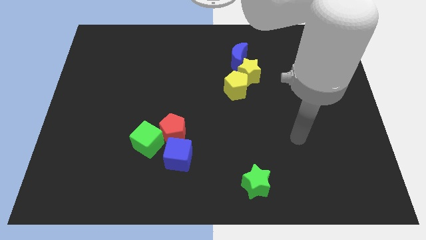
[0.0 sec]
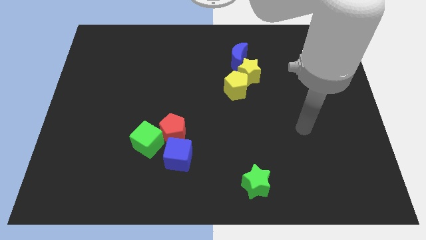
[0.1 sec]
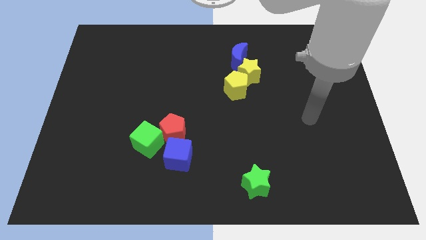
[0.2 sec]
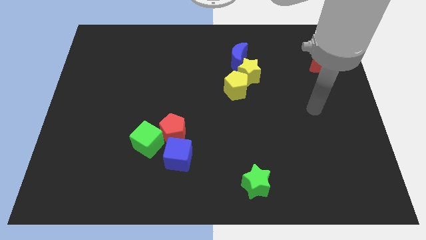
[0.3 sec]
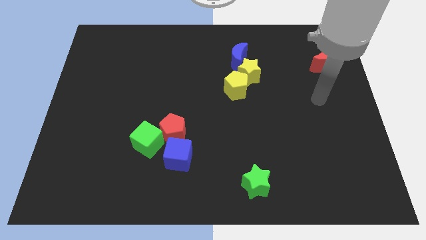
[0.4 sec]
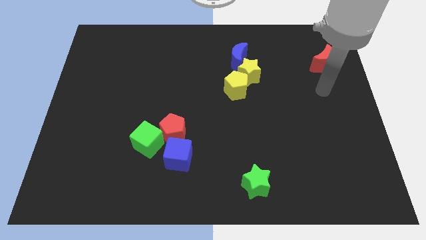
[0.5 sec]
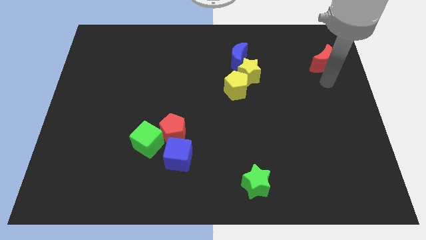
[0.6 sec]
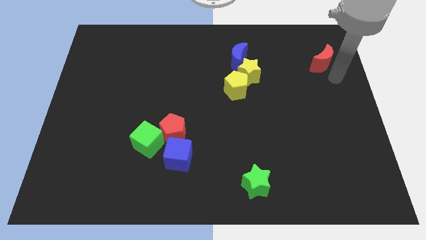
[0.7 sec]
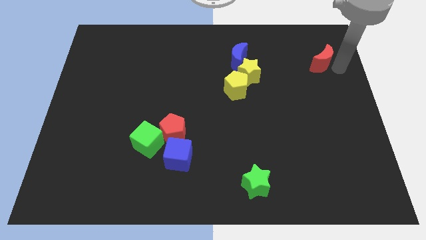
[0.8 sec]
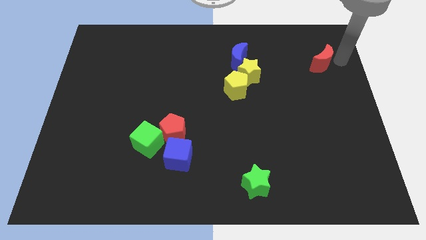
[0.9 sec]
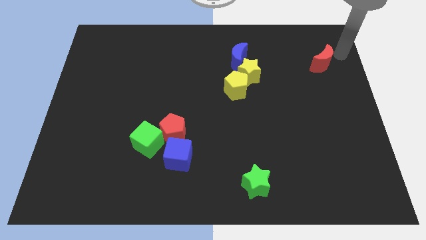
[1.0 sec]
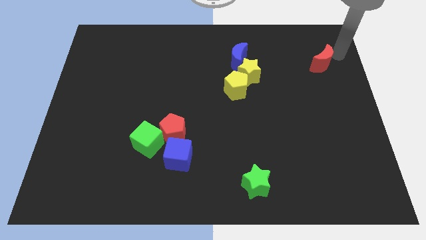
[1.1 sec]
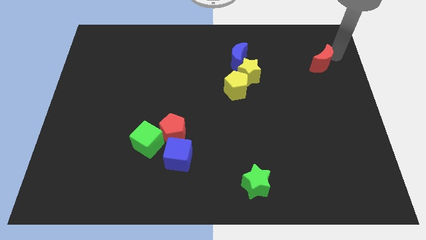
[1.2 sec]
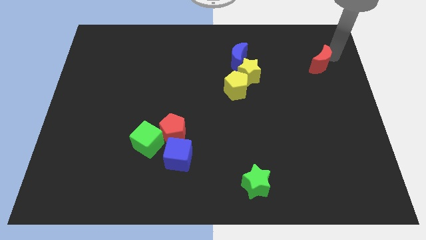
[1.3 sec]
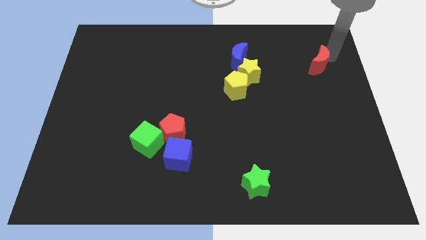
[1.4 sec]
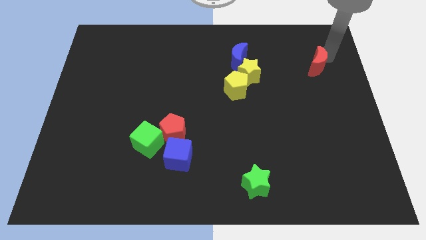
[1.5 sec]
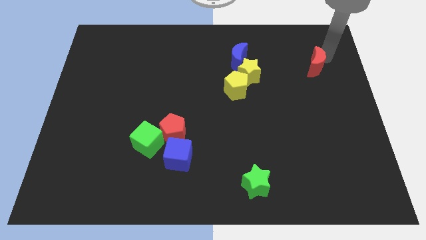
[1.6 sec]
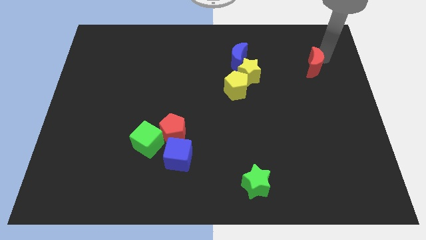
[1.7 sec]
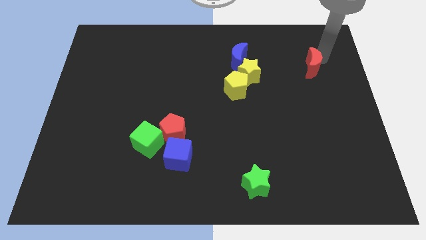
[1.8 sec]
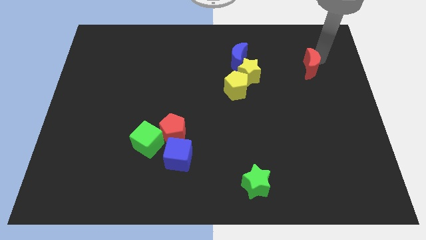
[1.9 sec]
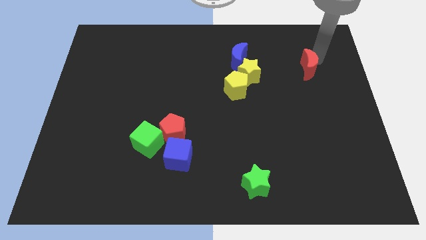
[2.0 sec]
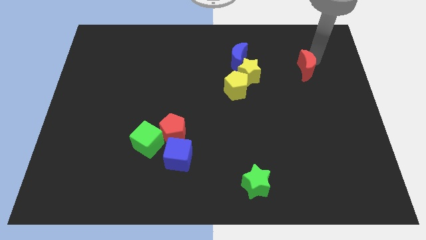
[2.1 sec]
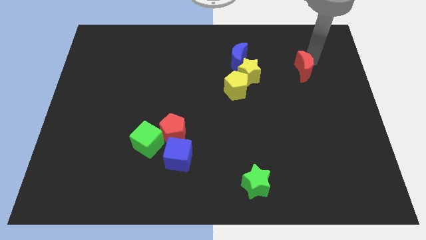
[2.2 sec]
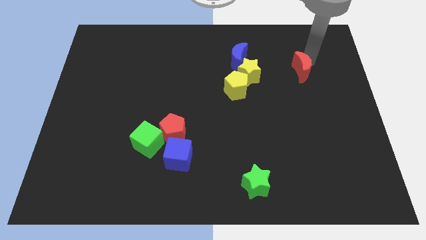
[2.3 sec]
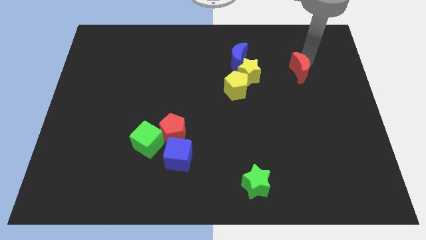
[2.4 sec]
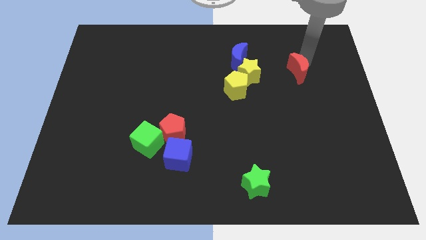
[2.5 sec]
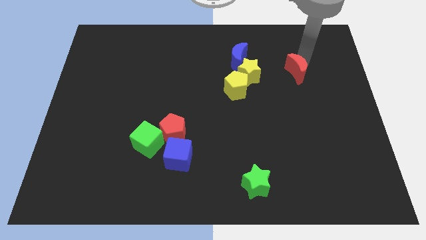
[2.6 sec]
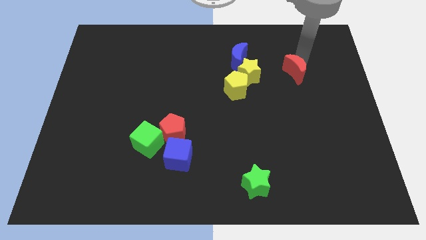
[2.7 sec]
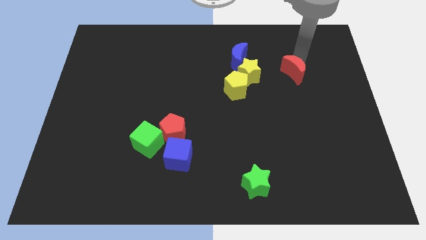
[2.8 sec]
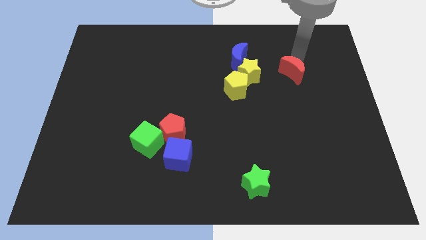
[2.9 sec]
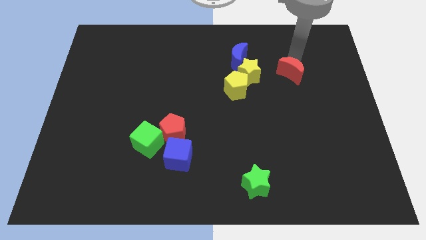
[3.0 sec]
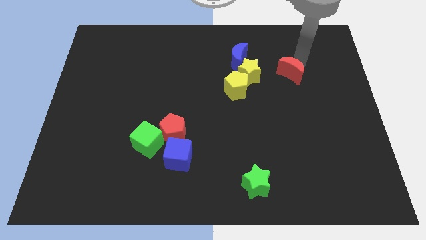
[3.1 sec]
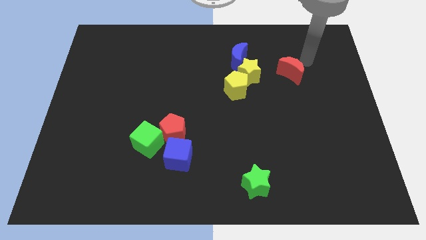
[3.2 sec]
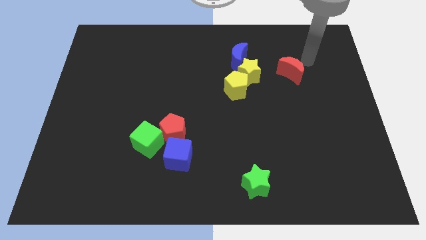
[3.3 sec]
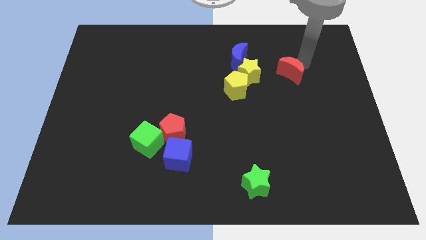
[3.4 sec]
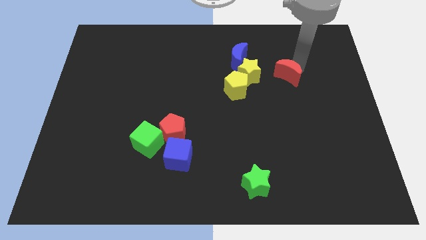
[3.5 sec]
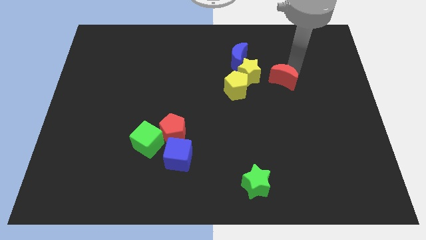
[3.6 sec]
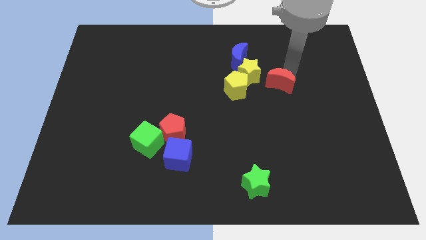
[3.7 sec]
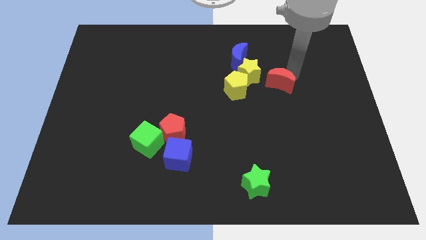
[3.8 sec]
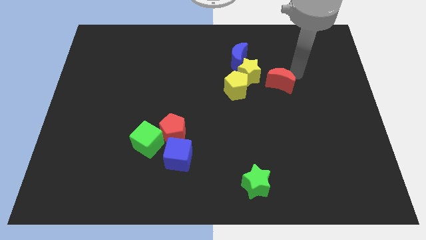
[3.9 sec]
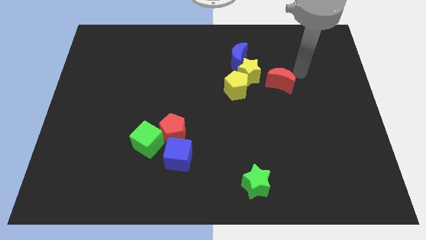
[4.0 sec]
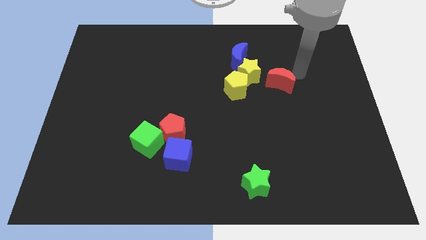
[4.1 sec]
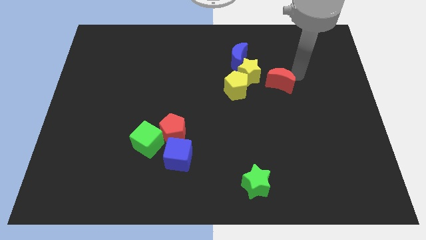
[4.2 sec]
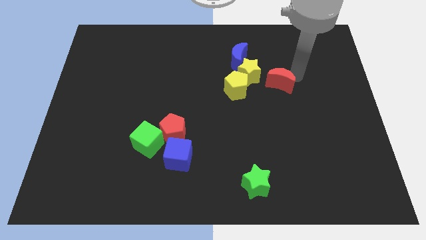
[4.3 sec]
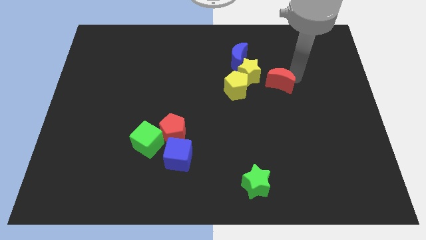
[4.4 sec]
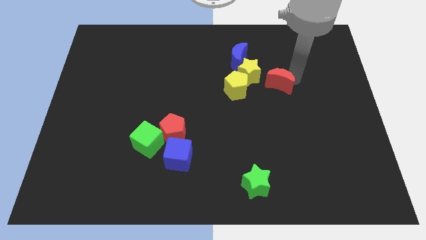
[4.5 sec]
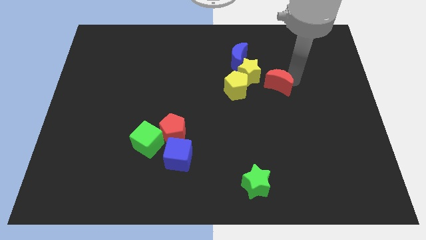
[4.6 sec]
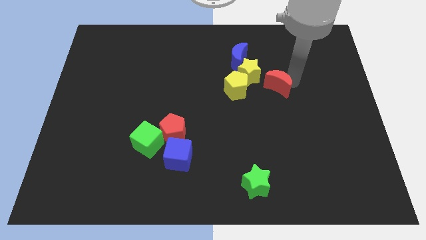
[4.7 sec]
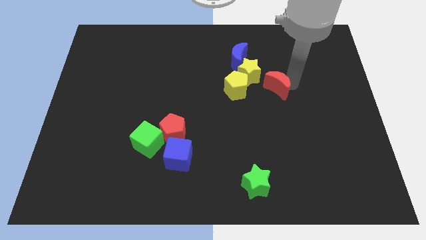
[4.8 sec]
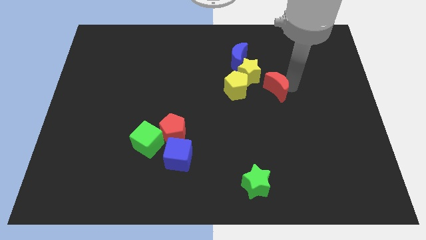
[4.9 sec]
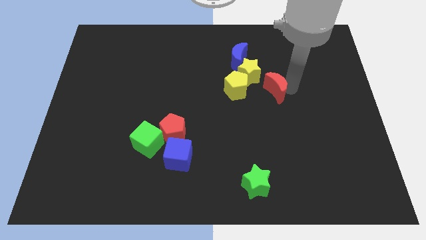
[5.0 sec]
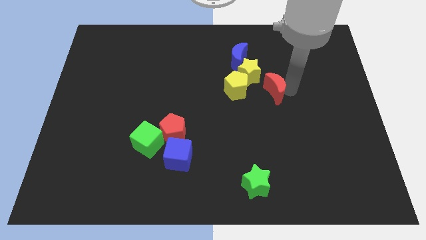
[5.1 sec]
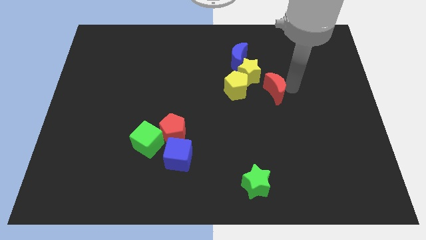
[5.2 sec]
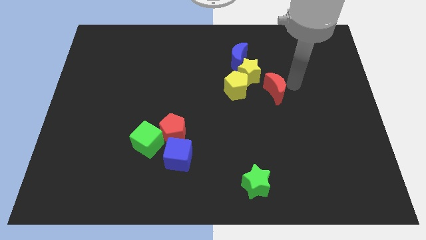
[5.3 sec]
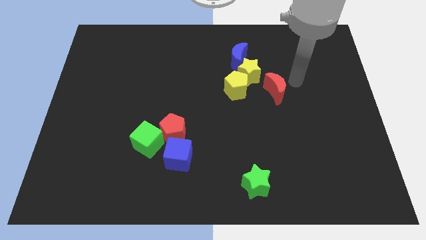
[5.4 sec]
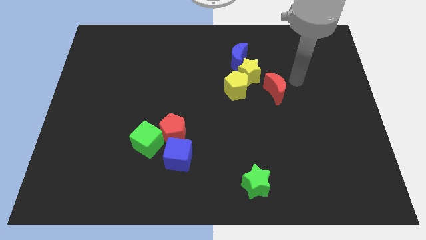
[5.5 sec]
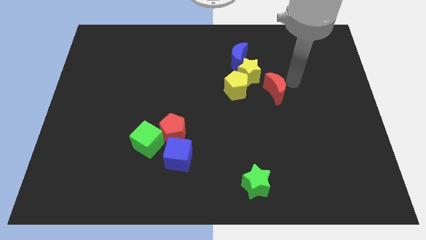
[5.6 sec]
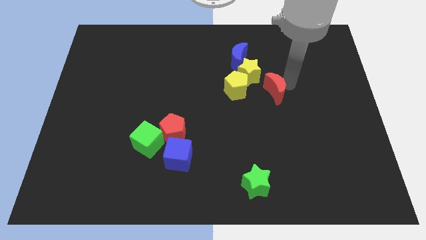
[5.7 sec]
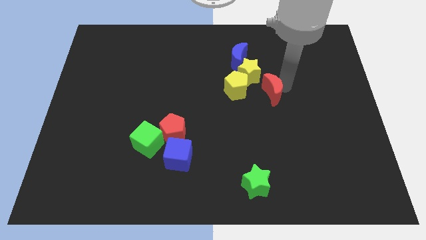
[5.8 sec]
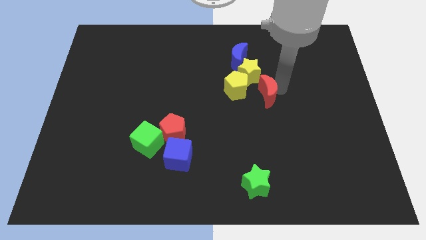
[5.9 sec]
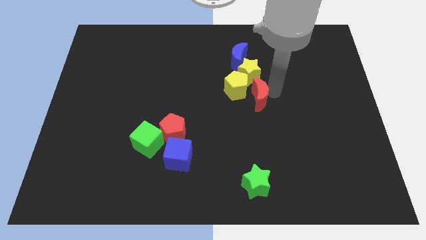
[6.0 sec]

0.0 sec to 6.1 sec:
put the red moon to the center
